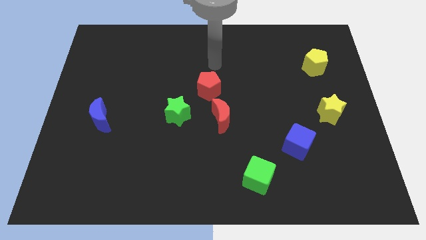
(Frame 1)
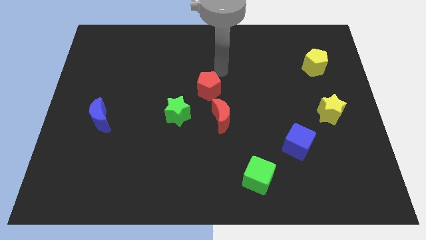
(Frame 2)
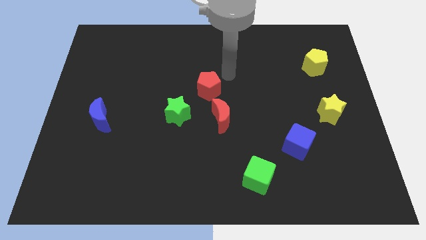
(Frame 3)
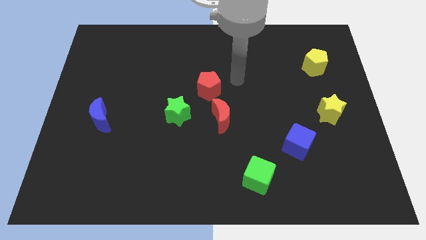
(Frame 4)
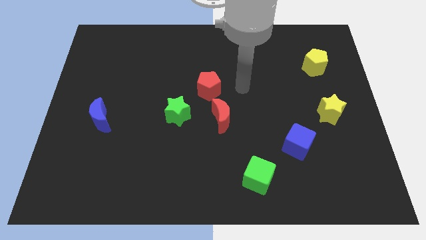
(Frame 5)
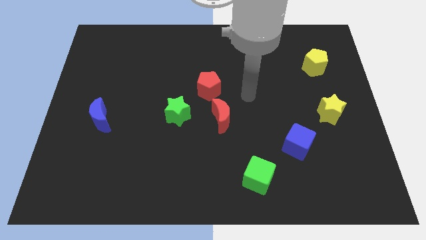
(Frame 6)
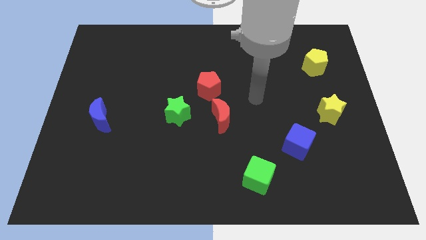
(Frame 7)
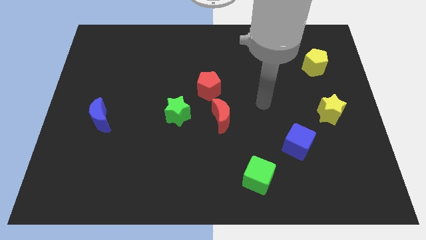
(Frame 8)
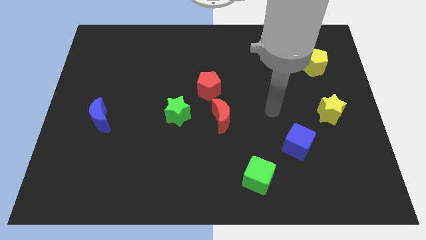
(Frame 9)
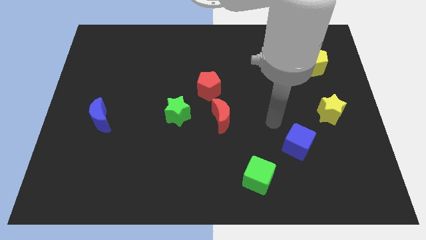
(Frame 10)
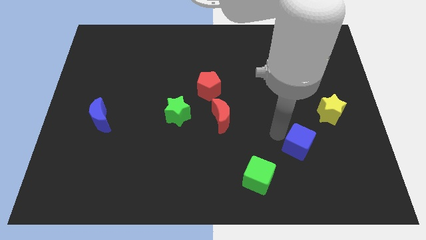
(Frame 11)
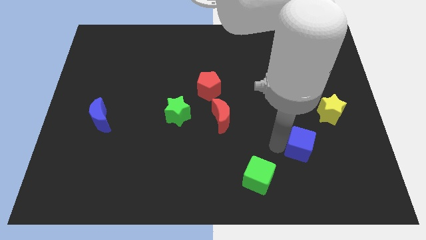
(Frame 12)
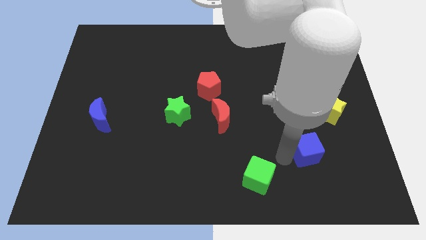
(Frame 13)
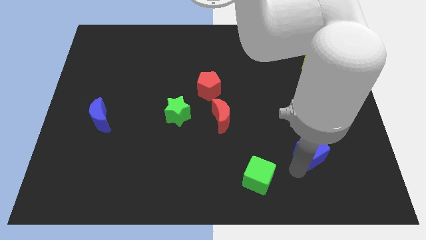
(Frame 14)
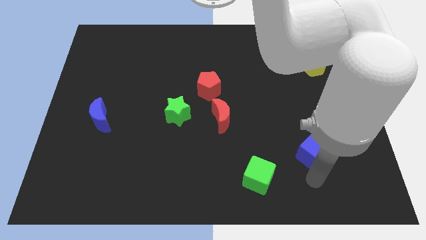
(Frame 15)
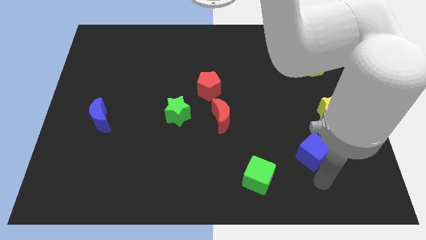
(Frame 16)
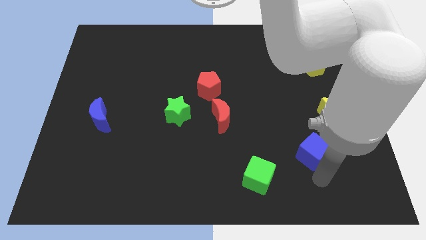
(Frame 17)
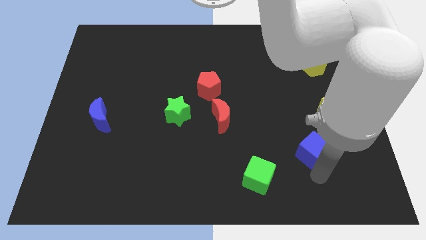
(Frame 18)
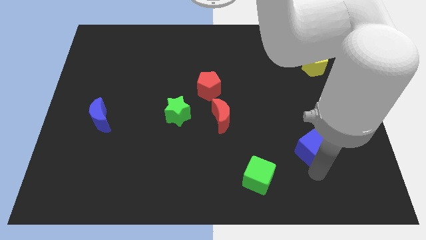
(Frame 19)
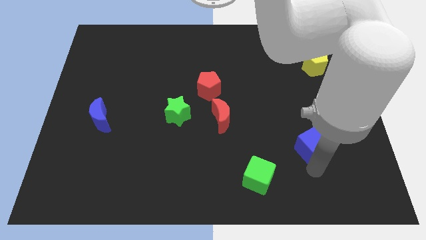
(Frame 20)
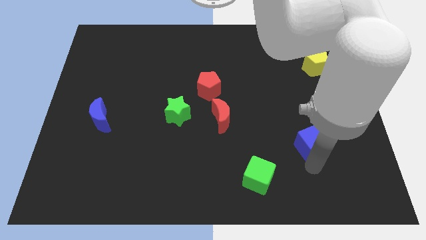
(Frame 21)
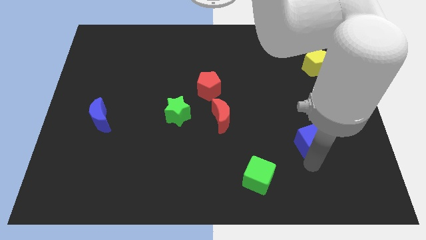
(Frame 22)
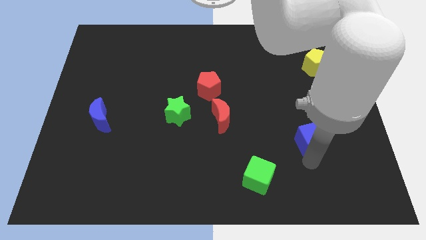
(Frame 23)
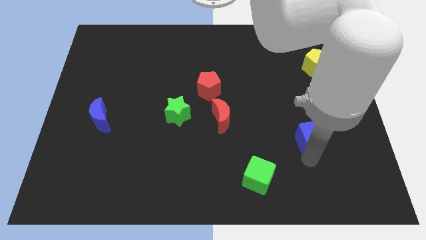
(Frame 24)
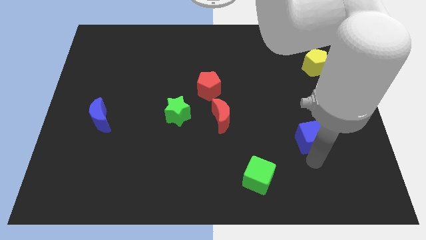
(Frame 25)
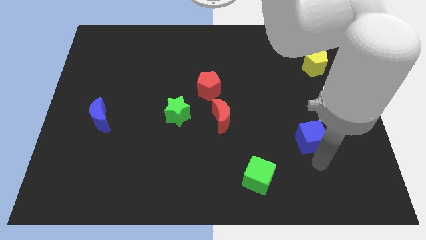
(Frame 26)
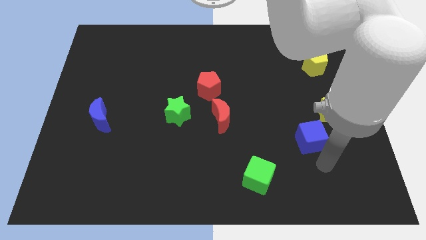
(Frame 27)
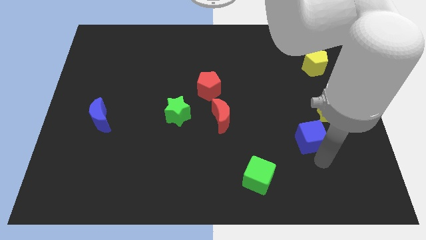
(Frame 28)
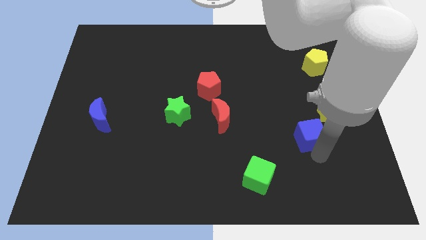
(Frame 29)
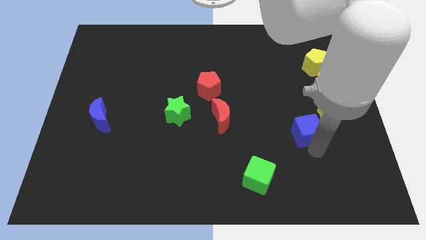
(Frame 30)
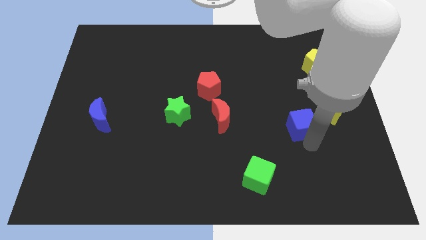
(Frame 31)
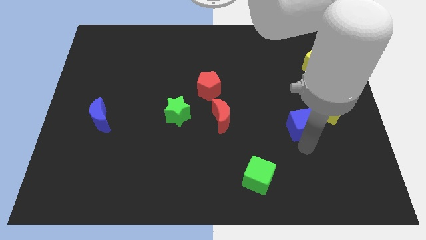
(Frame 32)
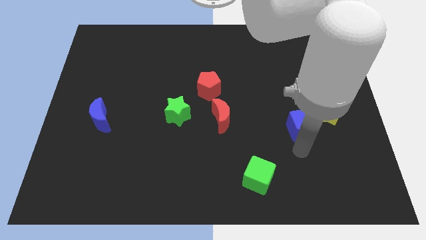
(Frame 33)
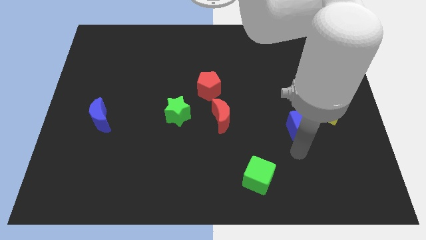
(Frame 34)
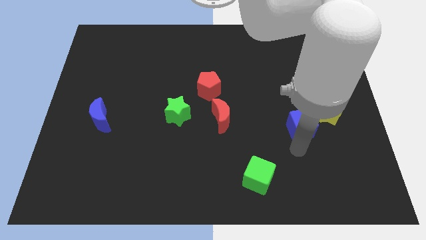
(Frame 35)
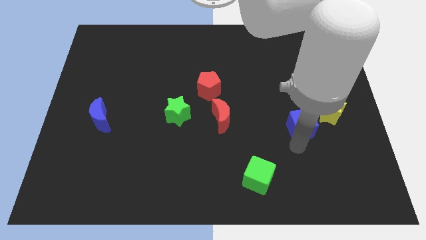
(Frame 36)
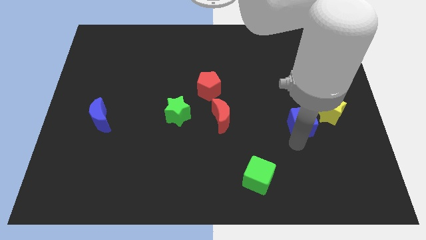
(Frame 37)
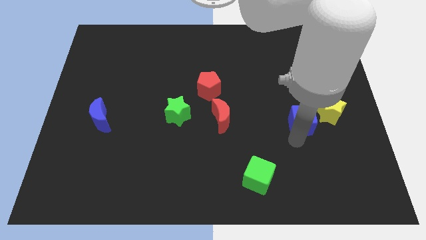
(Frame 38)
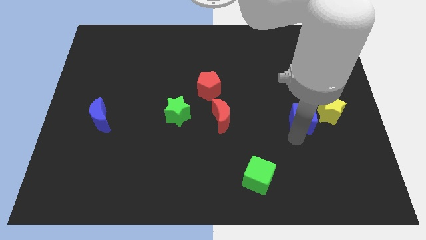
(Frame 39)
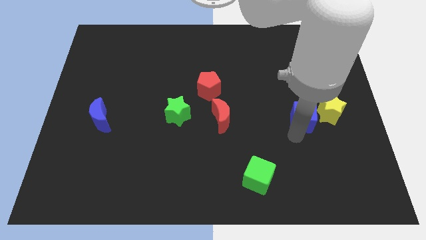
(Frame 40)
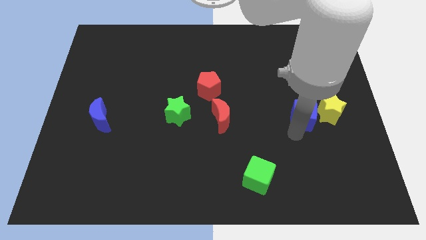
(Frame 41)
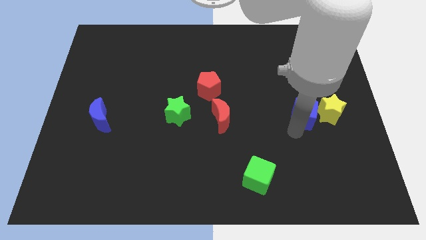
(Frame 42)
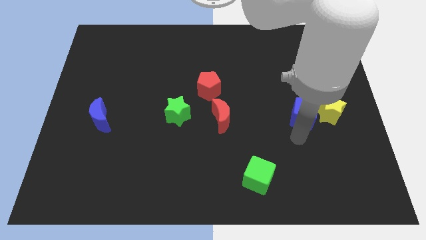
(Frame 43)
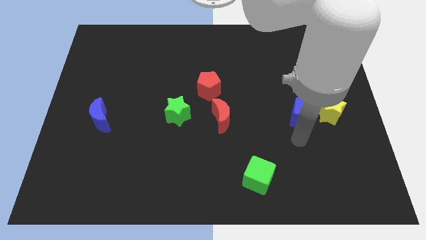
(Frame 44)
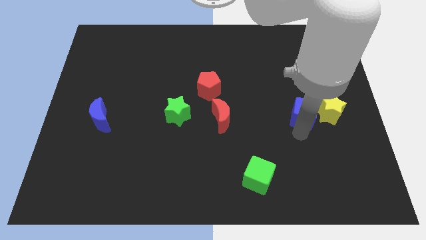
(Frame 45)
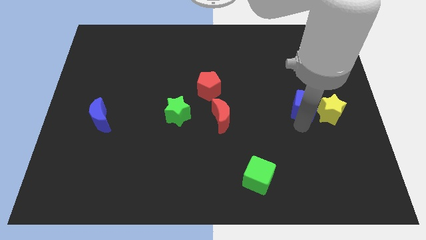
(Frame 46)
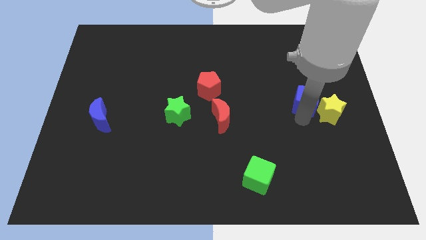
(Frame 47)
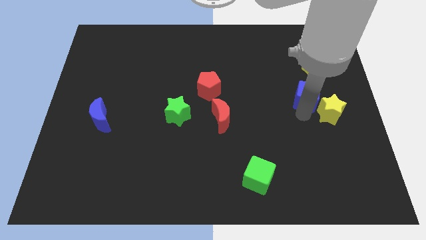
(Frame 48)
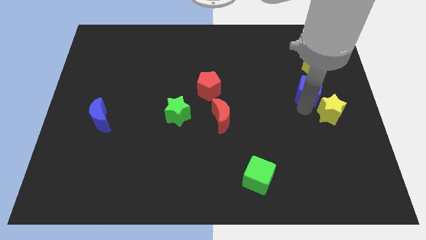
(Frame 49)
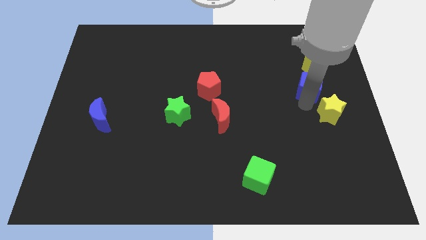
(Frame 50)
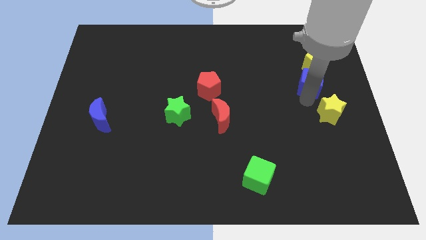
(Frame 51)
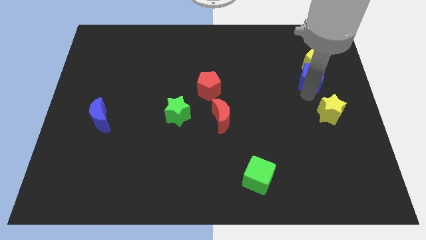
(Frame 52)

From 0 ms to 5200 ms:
push the blue cube next to the yellow pentagon

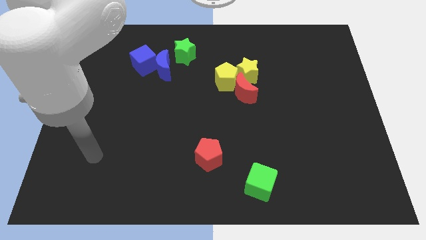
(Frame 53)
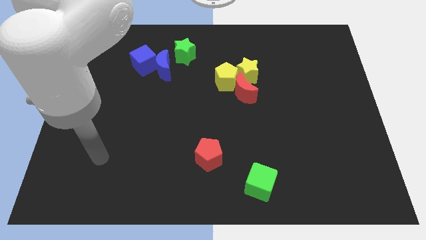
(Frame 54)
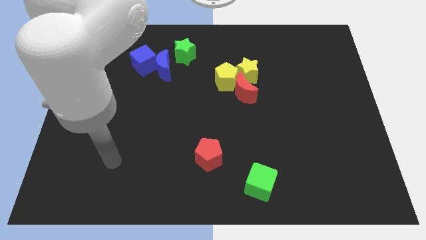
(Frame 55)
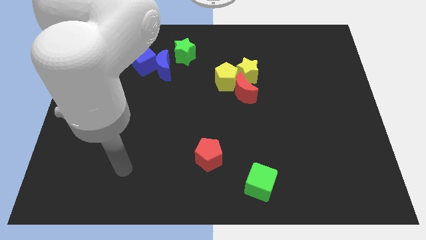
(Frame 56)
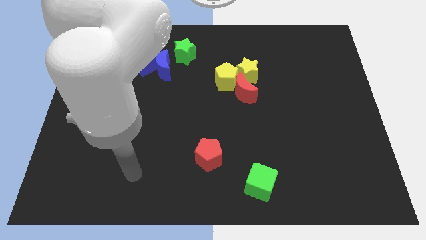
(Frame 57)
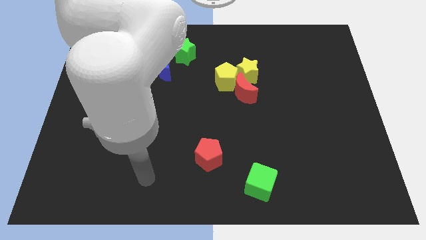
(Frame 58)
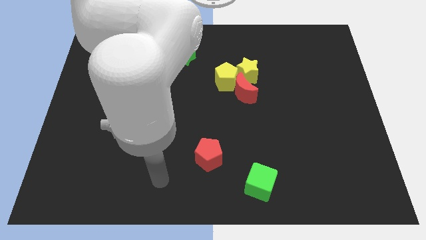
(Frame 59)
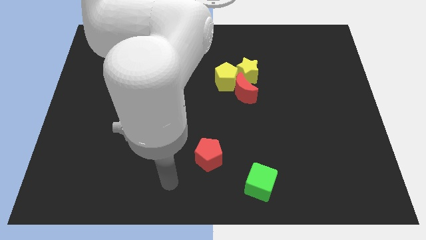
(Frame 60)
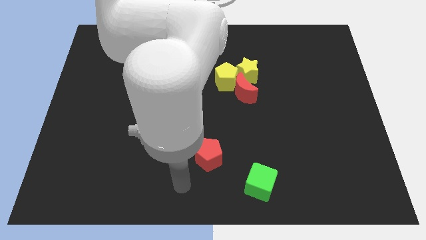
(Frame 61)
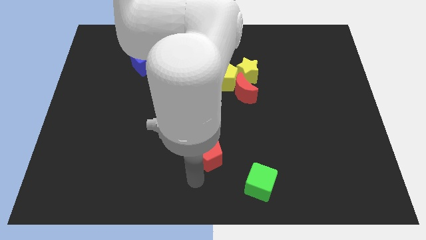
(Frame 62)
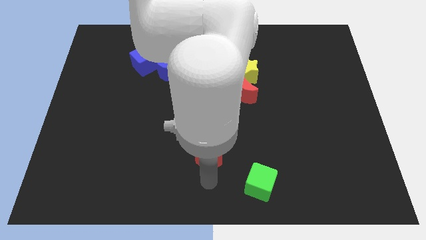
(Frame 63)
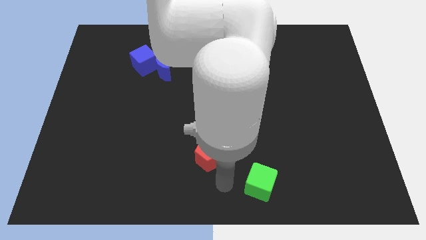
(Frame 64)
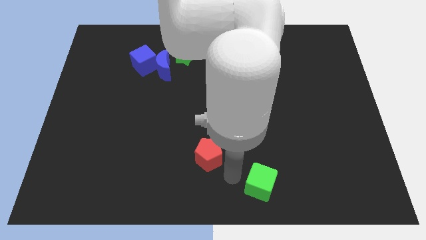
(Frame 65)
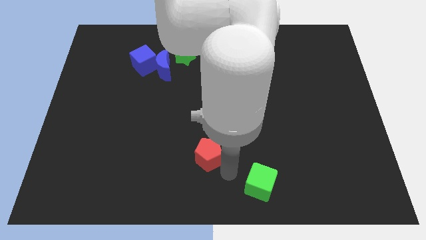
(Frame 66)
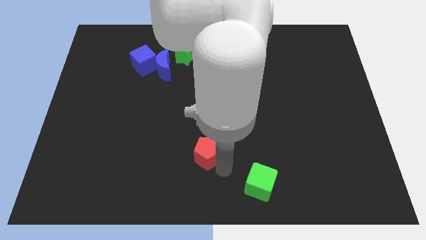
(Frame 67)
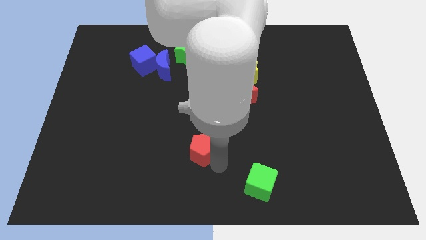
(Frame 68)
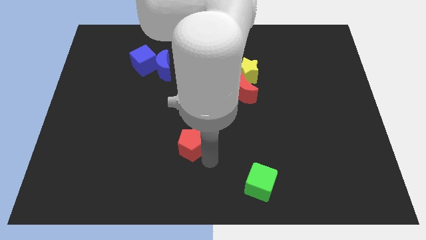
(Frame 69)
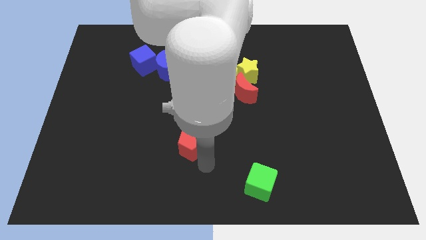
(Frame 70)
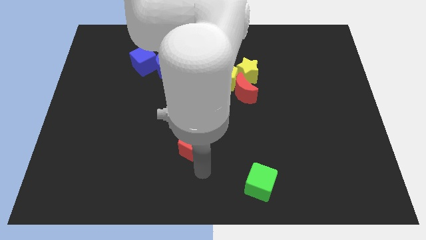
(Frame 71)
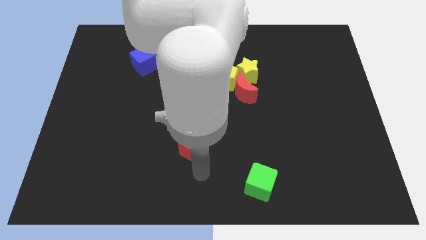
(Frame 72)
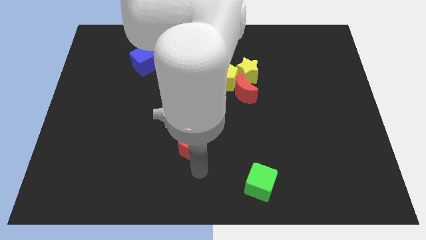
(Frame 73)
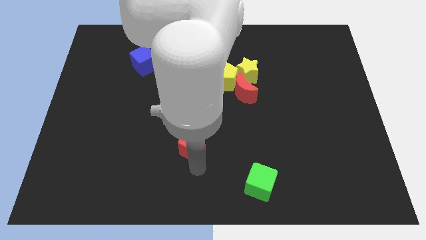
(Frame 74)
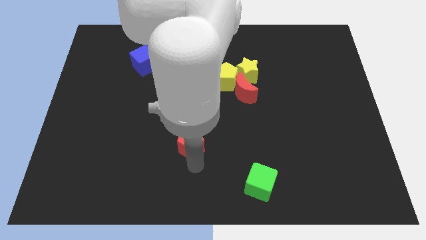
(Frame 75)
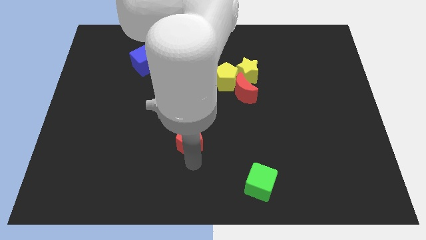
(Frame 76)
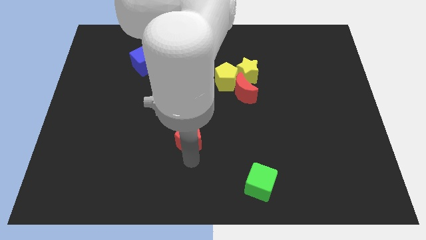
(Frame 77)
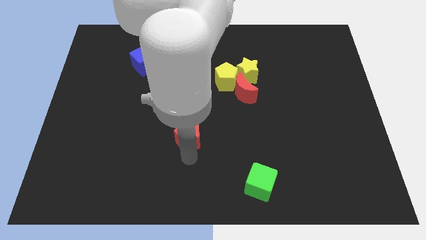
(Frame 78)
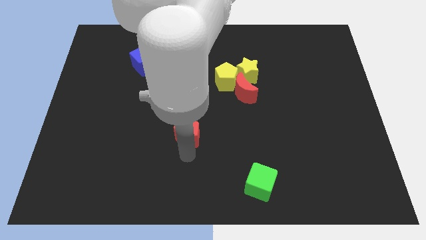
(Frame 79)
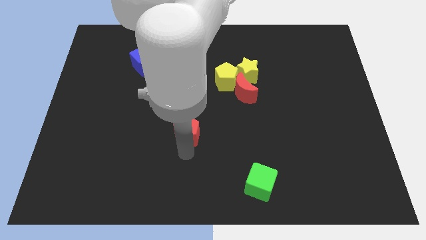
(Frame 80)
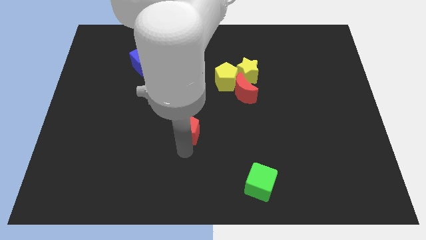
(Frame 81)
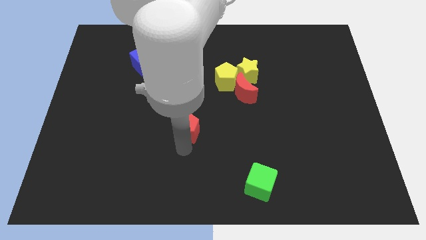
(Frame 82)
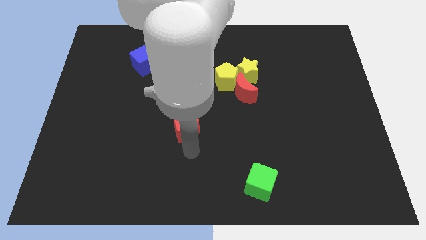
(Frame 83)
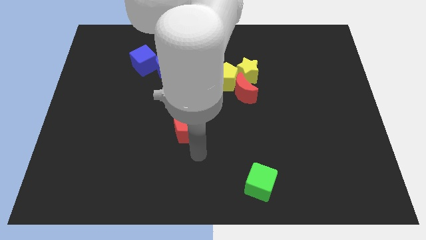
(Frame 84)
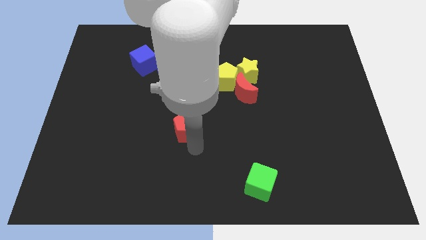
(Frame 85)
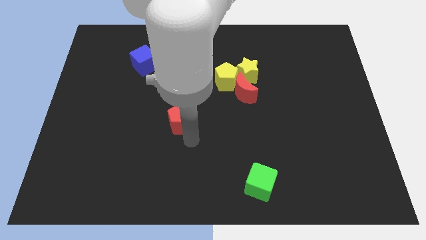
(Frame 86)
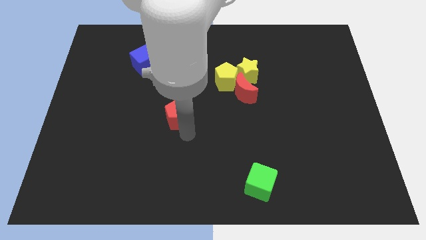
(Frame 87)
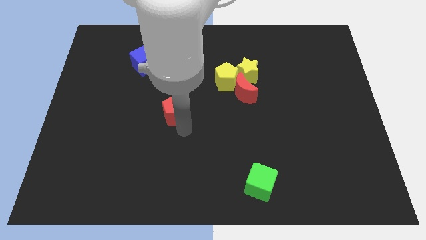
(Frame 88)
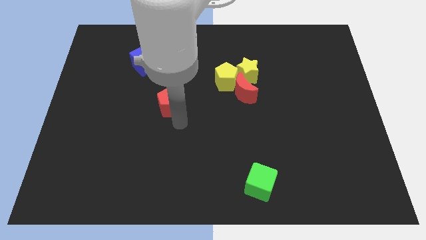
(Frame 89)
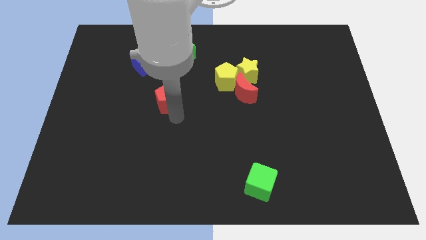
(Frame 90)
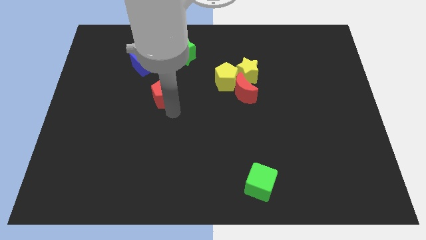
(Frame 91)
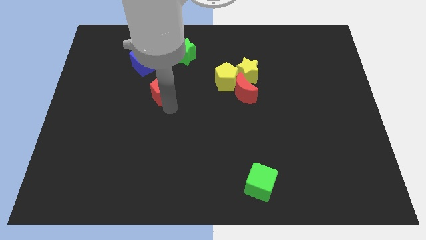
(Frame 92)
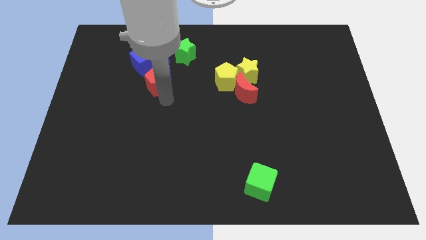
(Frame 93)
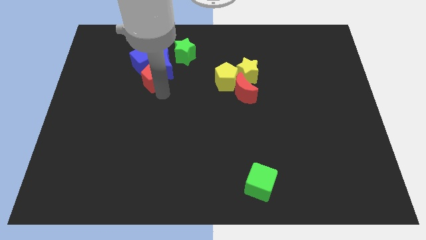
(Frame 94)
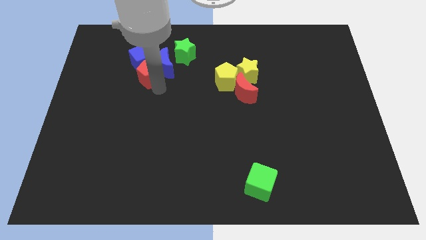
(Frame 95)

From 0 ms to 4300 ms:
push the red pentagon next to the blue cube
